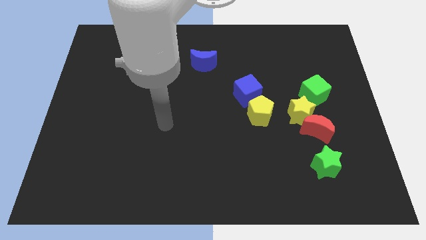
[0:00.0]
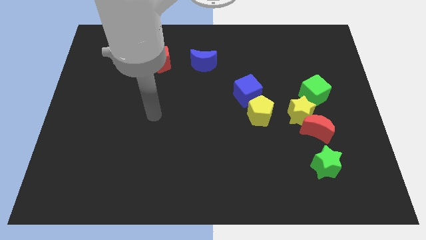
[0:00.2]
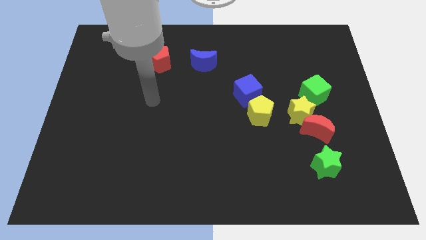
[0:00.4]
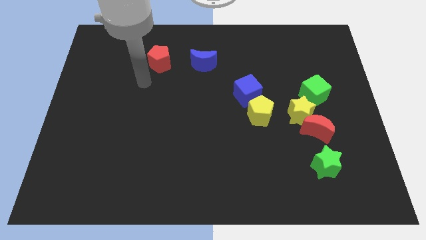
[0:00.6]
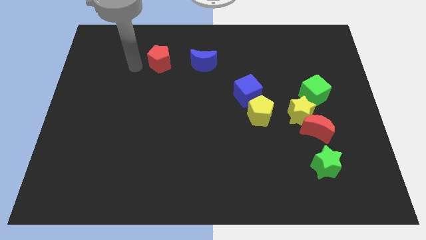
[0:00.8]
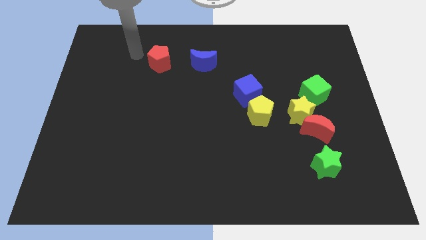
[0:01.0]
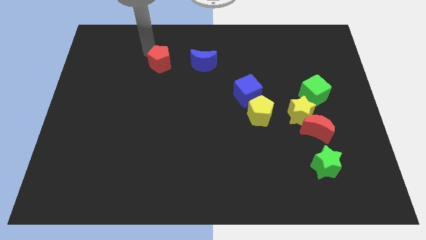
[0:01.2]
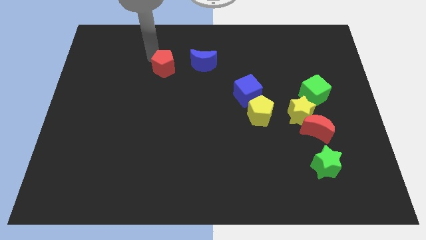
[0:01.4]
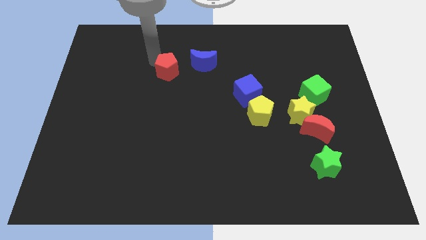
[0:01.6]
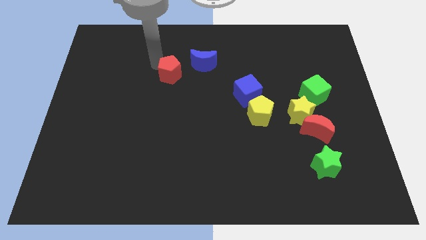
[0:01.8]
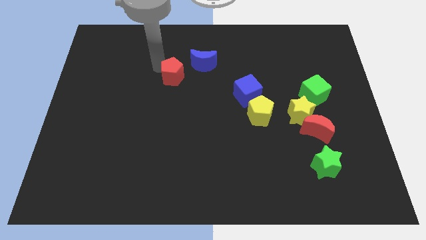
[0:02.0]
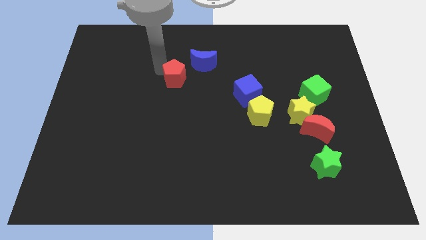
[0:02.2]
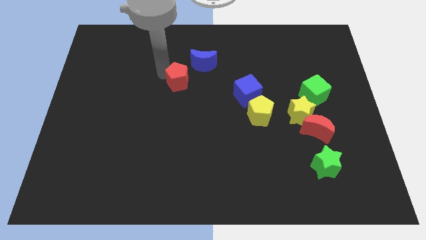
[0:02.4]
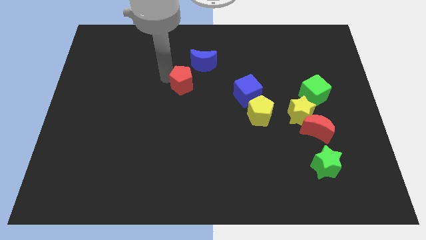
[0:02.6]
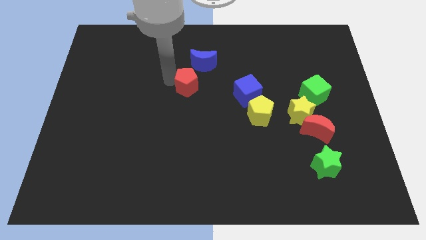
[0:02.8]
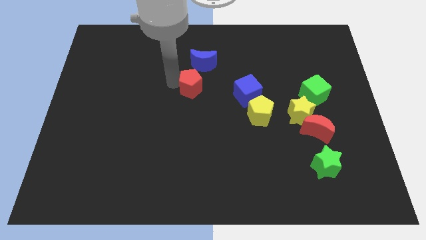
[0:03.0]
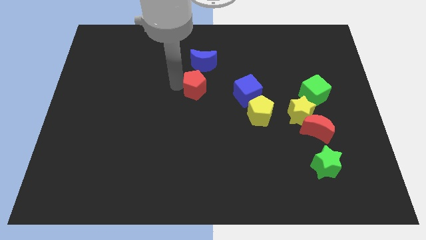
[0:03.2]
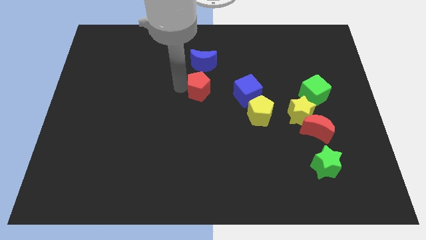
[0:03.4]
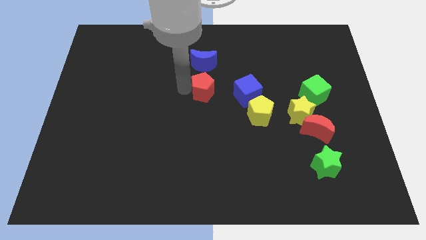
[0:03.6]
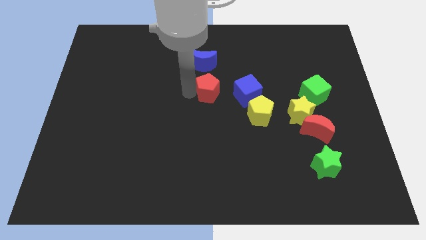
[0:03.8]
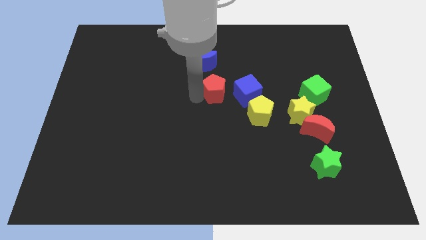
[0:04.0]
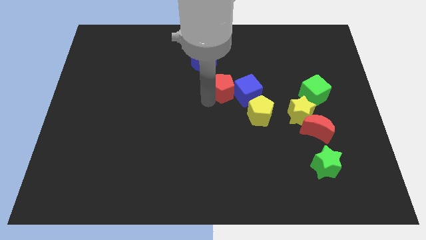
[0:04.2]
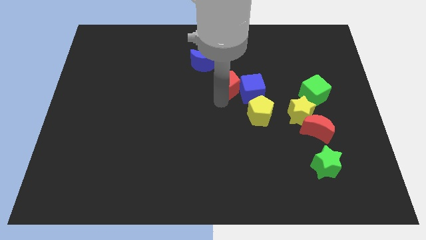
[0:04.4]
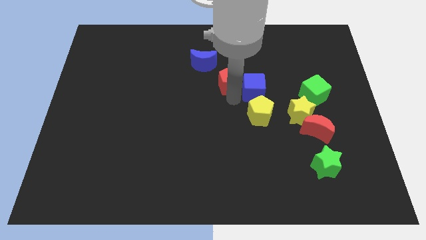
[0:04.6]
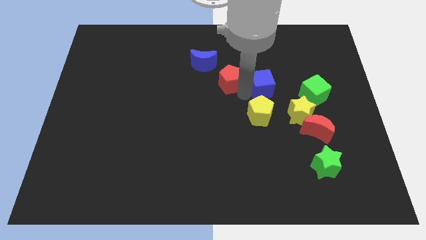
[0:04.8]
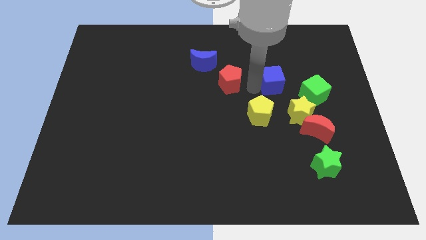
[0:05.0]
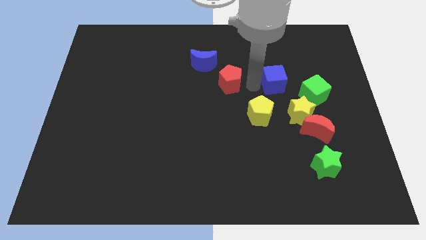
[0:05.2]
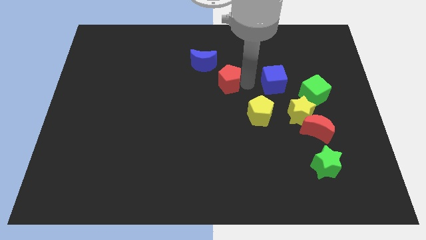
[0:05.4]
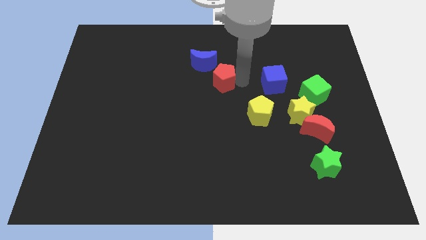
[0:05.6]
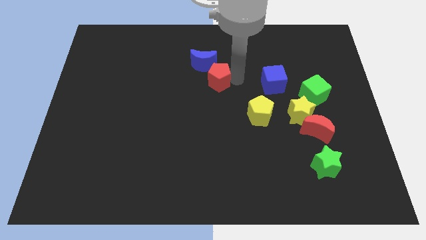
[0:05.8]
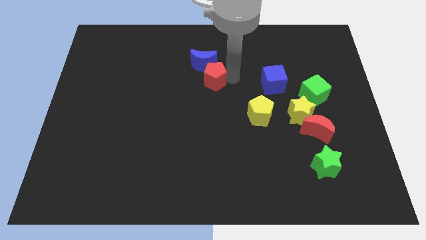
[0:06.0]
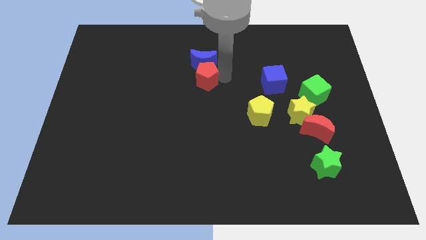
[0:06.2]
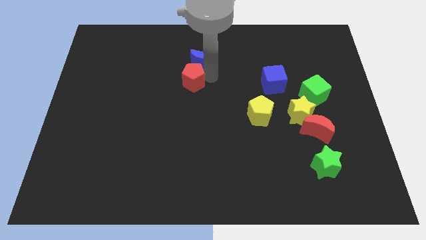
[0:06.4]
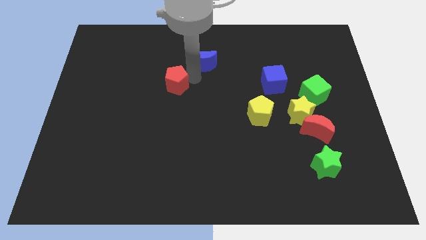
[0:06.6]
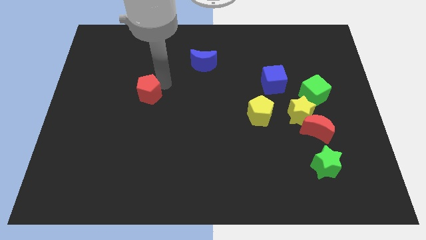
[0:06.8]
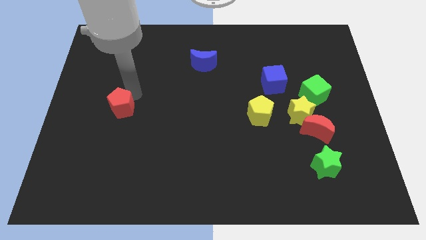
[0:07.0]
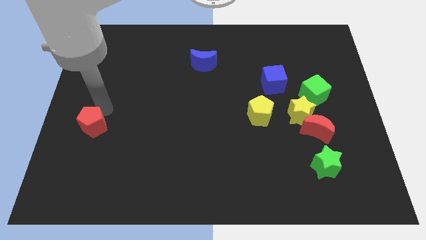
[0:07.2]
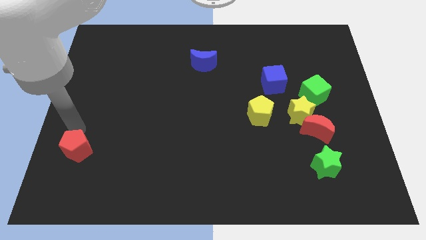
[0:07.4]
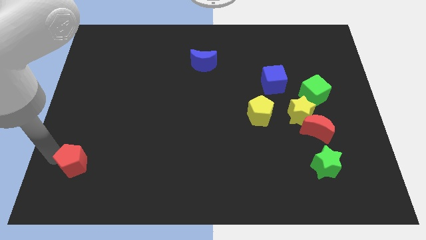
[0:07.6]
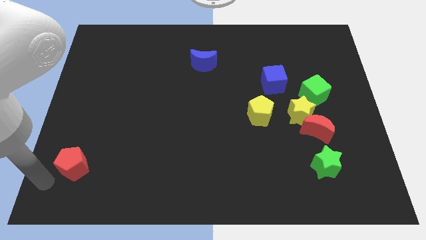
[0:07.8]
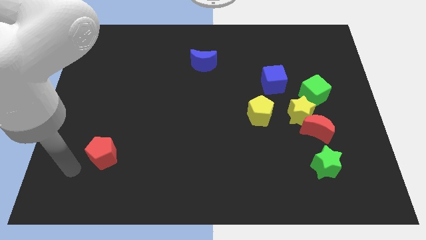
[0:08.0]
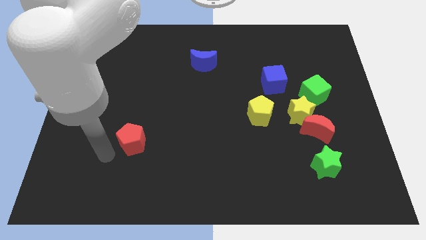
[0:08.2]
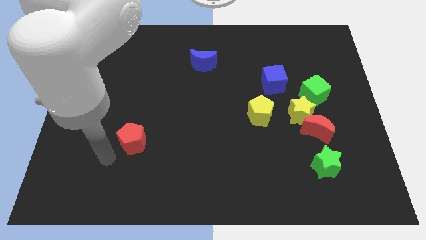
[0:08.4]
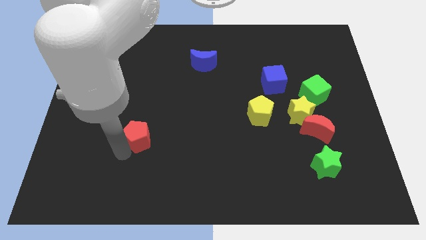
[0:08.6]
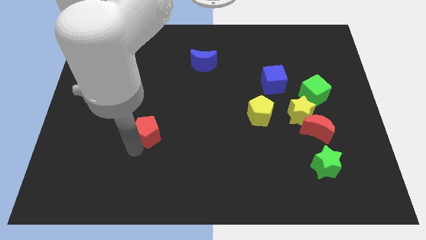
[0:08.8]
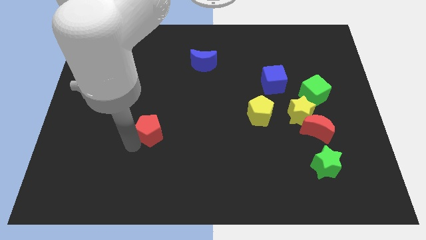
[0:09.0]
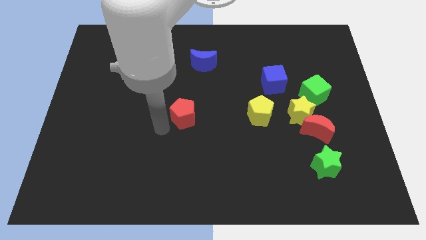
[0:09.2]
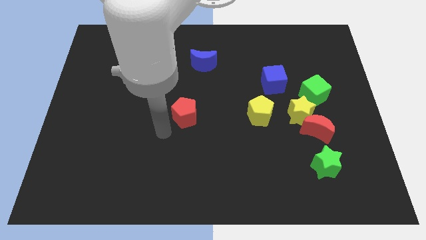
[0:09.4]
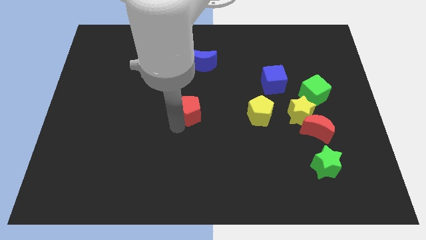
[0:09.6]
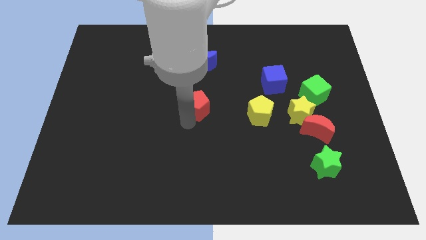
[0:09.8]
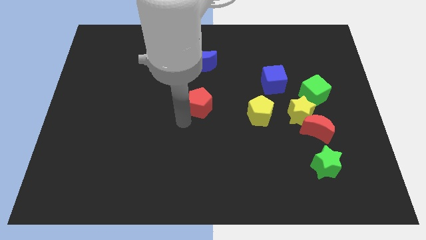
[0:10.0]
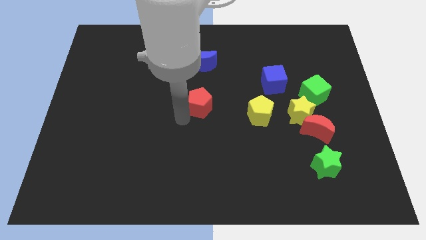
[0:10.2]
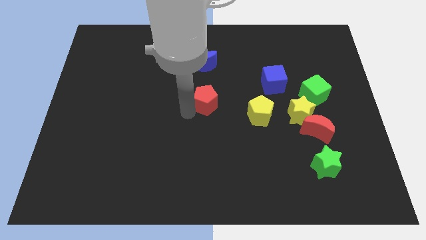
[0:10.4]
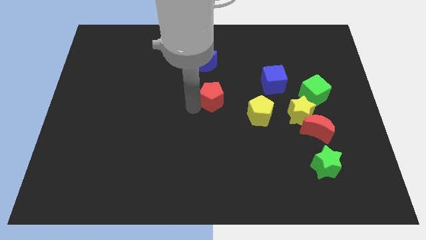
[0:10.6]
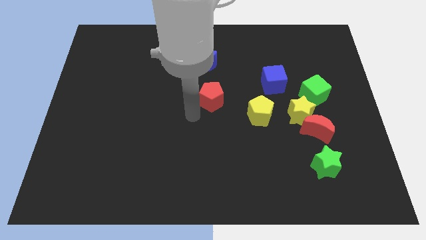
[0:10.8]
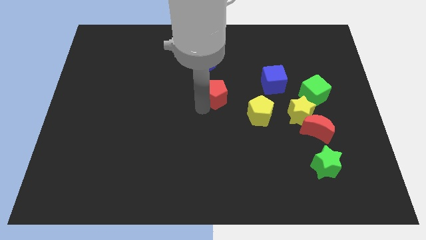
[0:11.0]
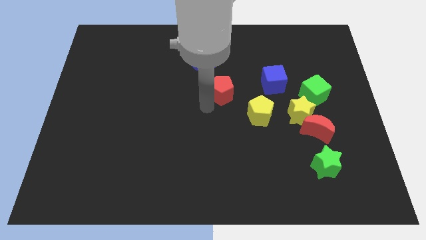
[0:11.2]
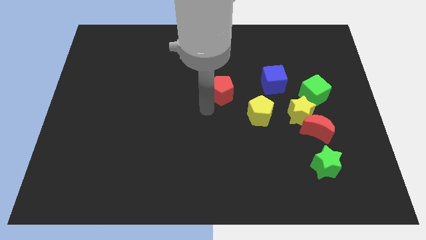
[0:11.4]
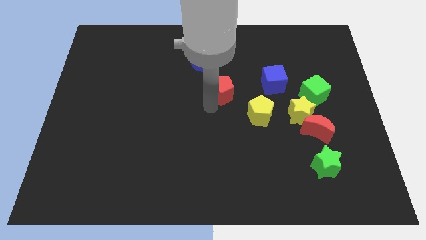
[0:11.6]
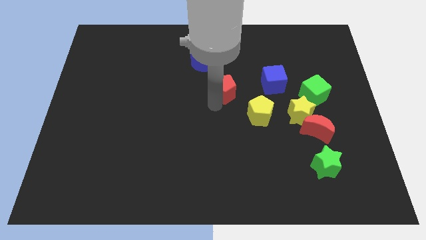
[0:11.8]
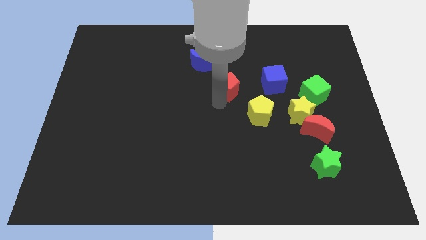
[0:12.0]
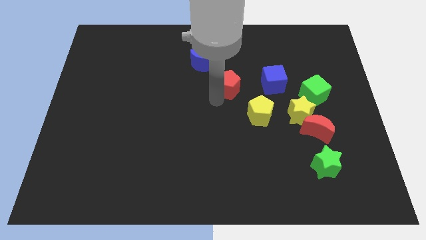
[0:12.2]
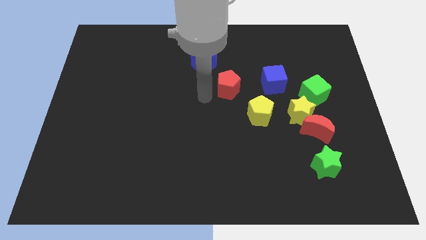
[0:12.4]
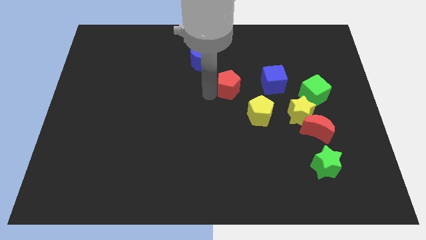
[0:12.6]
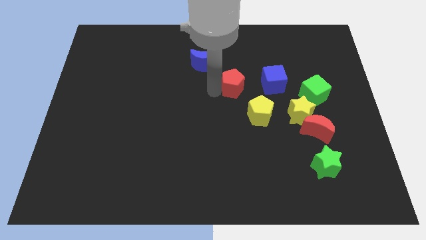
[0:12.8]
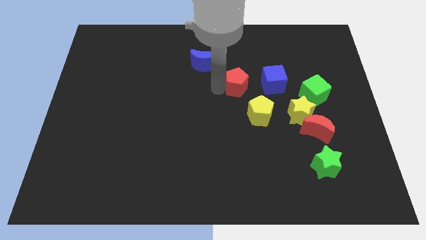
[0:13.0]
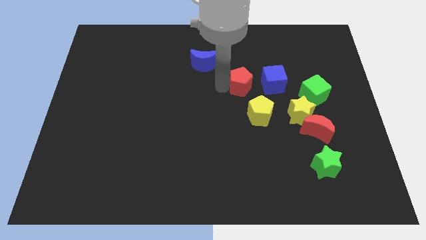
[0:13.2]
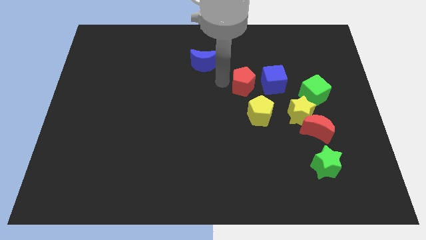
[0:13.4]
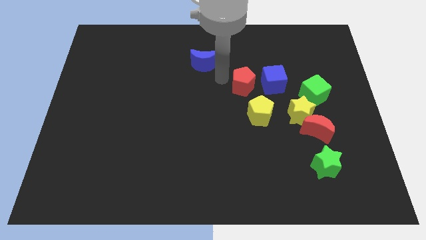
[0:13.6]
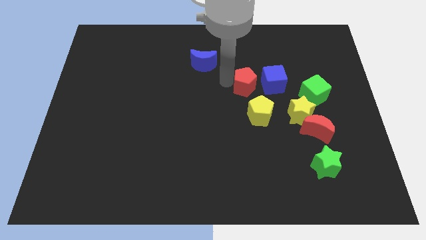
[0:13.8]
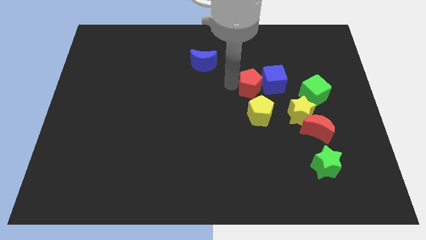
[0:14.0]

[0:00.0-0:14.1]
push the red pentagon to the left of the green cube
